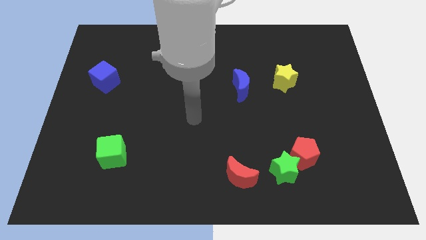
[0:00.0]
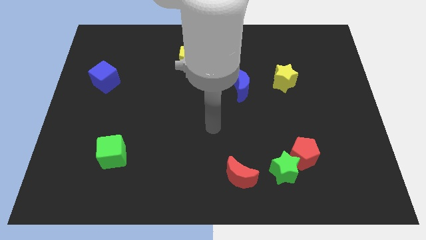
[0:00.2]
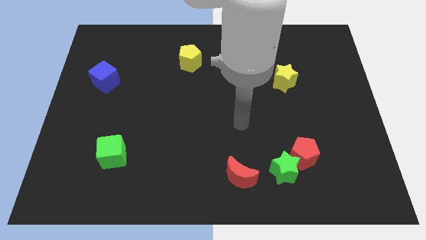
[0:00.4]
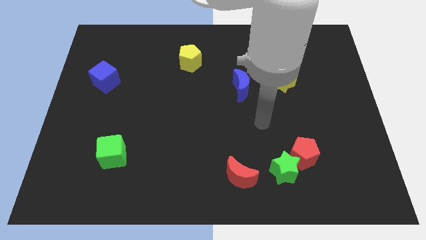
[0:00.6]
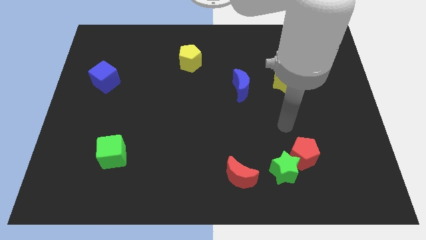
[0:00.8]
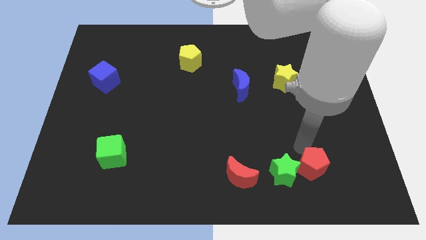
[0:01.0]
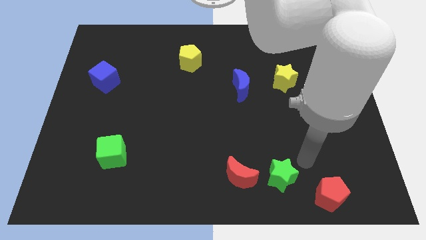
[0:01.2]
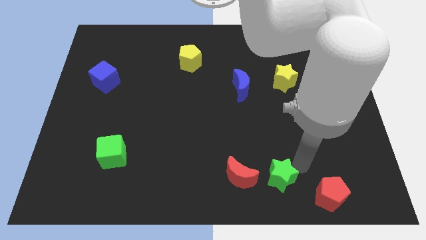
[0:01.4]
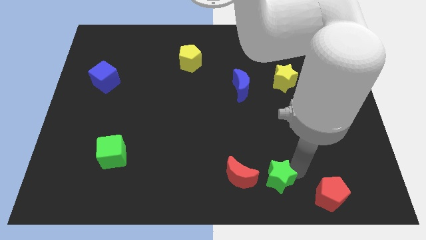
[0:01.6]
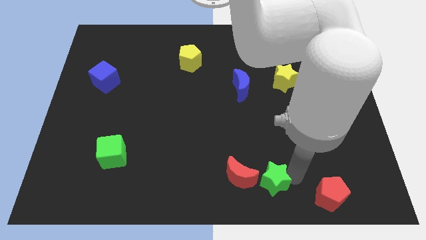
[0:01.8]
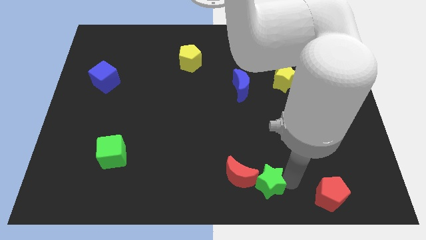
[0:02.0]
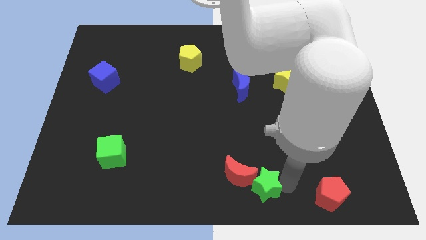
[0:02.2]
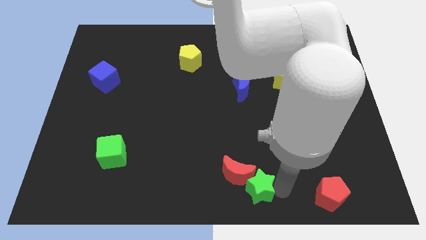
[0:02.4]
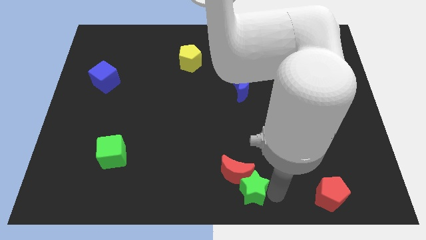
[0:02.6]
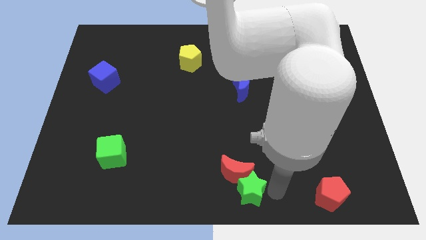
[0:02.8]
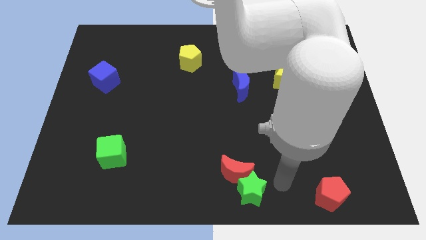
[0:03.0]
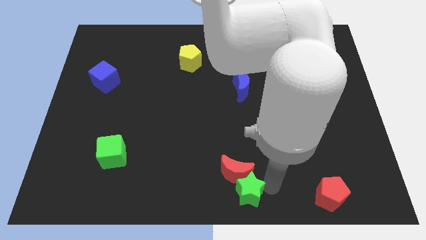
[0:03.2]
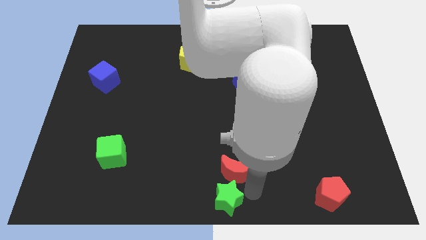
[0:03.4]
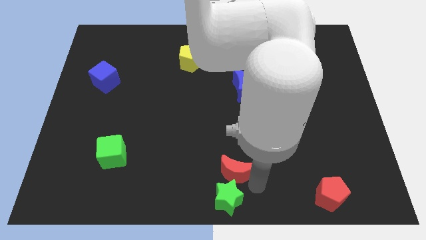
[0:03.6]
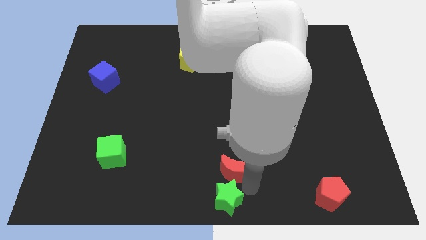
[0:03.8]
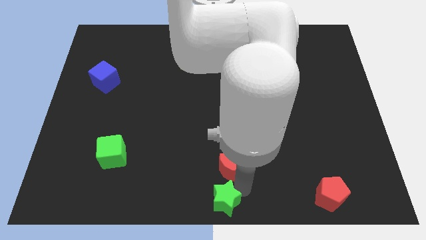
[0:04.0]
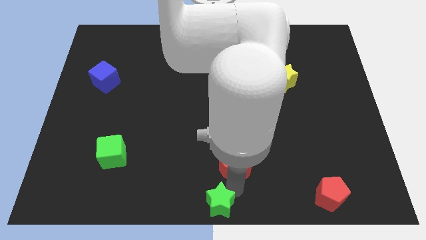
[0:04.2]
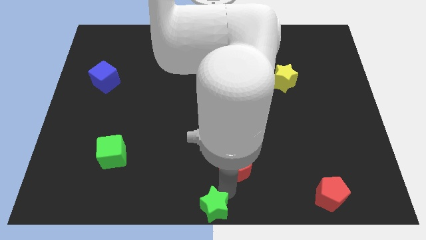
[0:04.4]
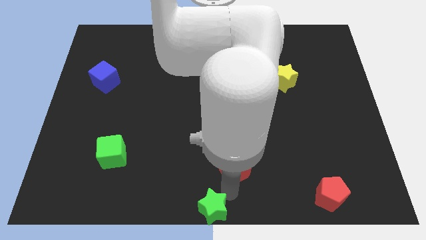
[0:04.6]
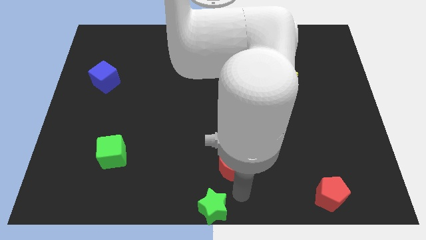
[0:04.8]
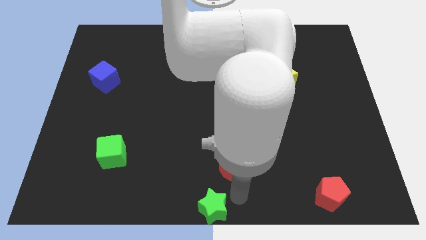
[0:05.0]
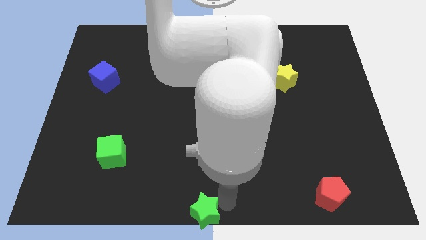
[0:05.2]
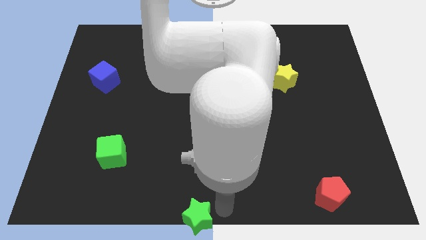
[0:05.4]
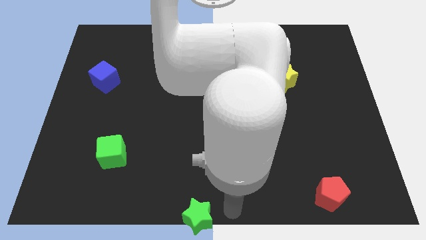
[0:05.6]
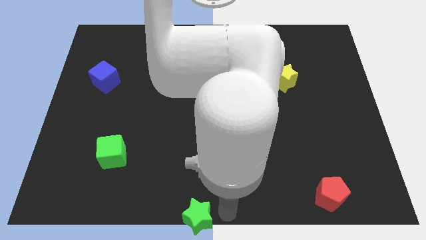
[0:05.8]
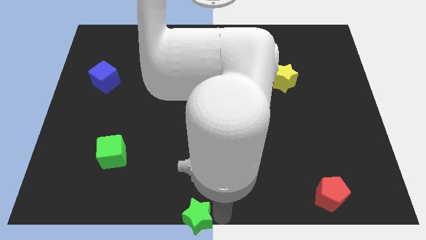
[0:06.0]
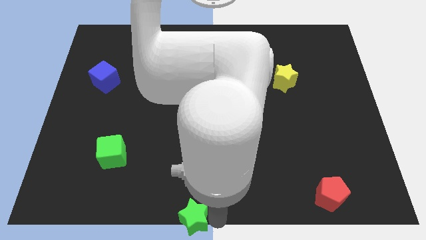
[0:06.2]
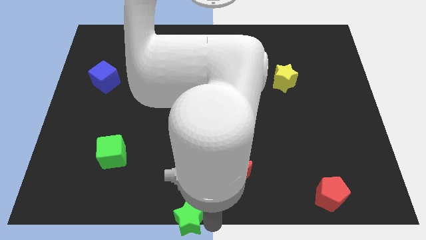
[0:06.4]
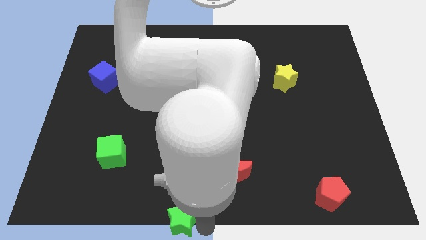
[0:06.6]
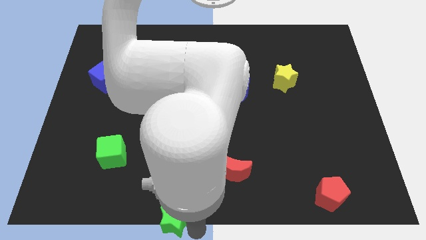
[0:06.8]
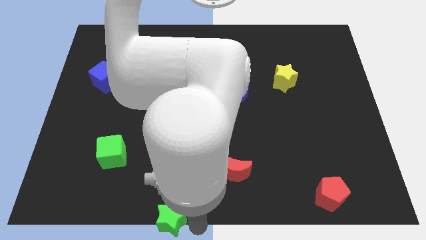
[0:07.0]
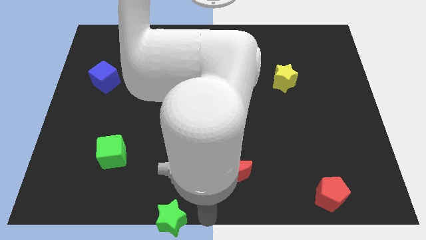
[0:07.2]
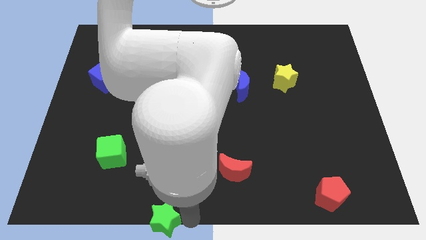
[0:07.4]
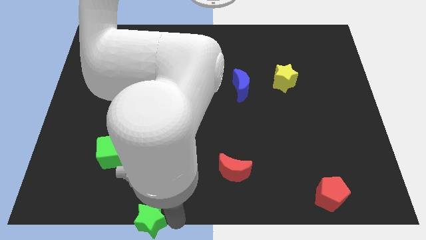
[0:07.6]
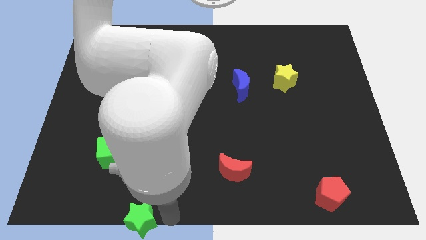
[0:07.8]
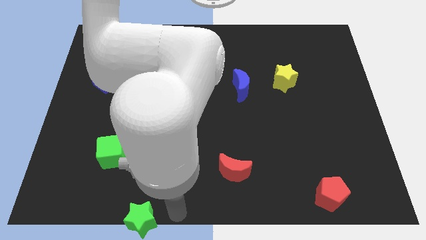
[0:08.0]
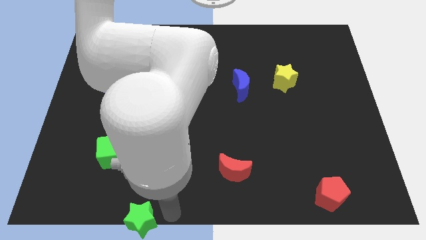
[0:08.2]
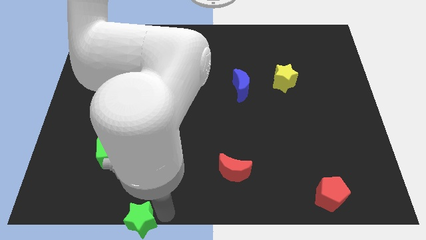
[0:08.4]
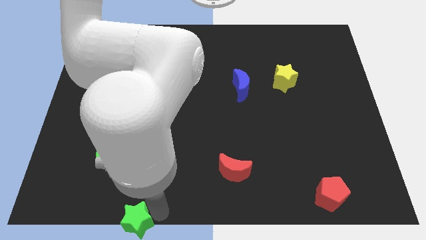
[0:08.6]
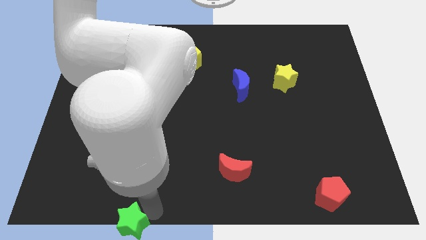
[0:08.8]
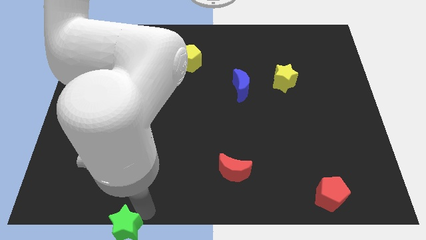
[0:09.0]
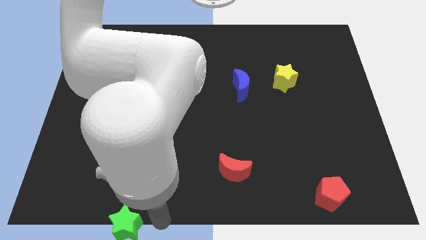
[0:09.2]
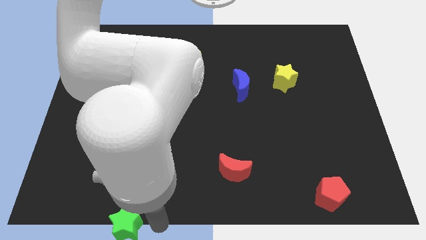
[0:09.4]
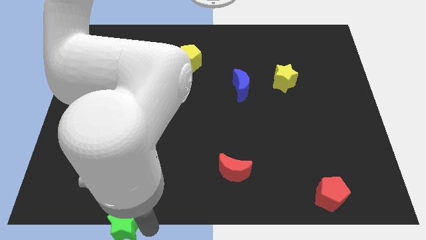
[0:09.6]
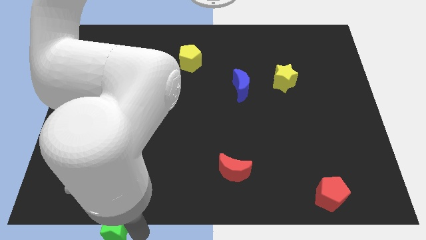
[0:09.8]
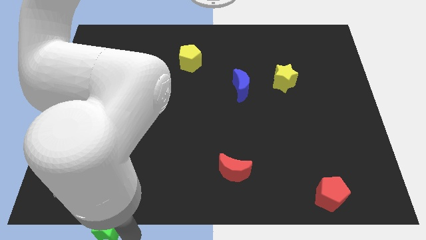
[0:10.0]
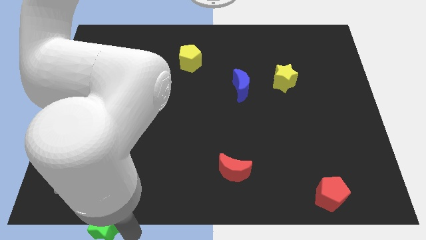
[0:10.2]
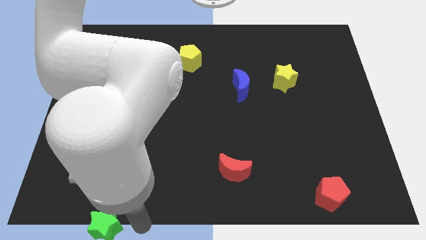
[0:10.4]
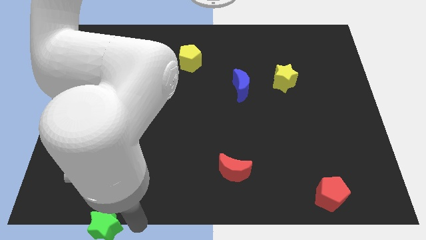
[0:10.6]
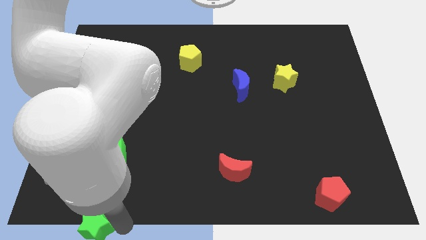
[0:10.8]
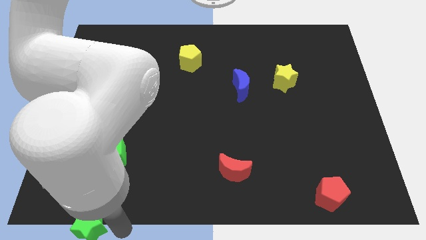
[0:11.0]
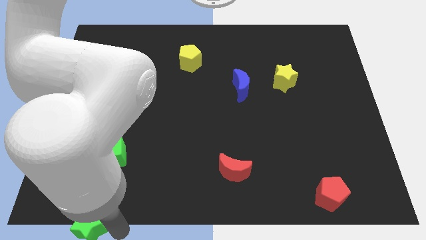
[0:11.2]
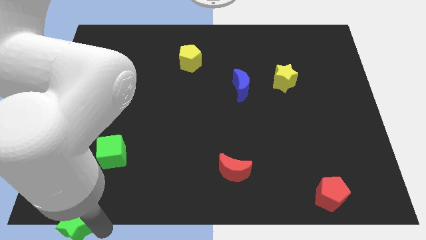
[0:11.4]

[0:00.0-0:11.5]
slide the green star to the bottom left

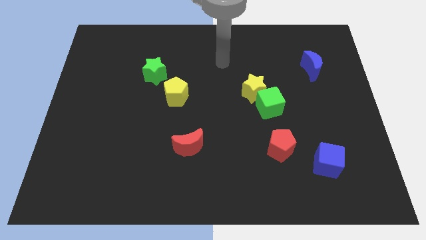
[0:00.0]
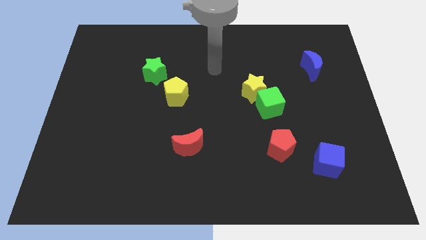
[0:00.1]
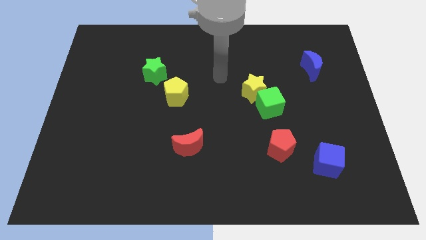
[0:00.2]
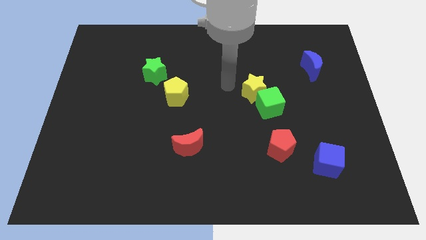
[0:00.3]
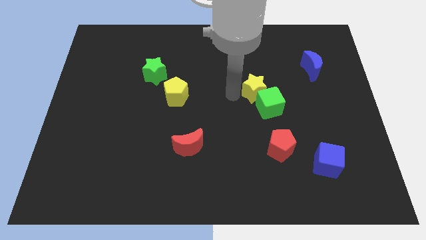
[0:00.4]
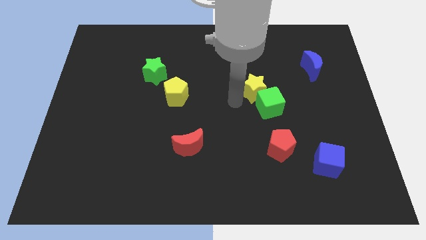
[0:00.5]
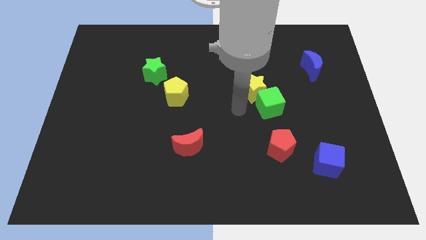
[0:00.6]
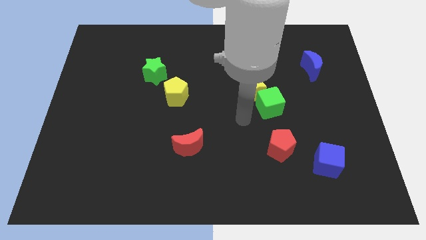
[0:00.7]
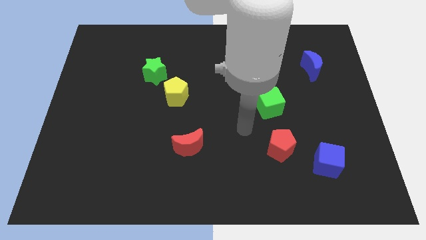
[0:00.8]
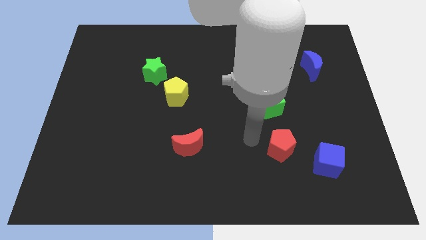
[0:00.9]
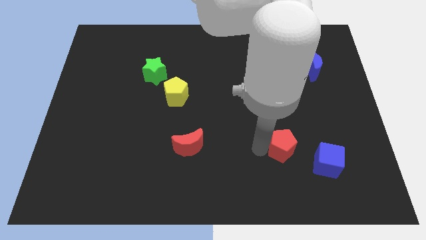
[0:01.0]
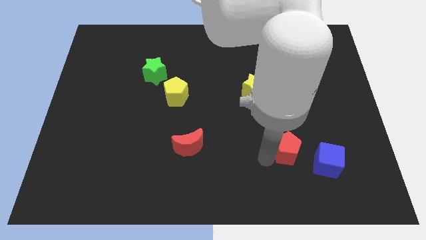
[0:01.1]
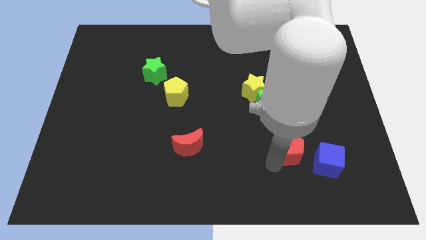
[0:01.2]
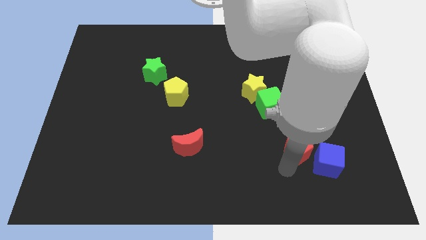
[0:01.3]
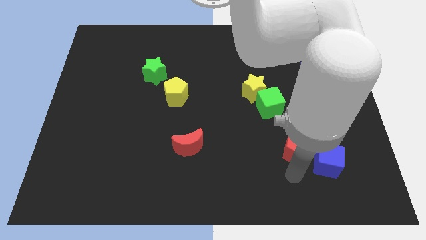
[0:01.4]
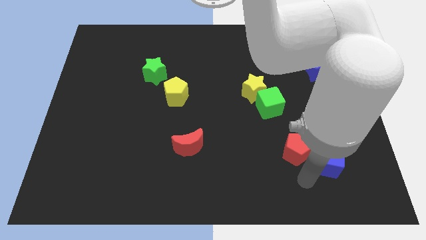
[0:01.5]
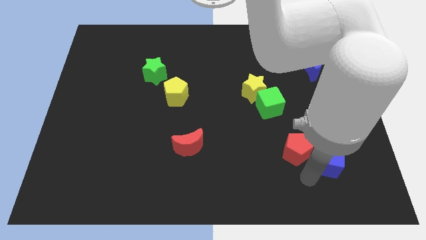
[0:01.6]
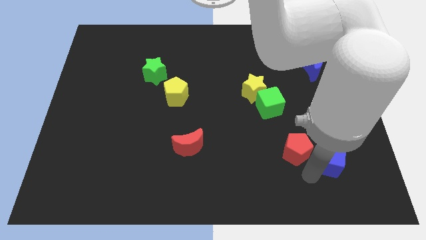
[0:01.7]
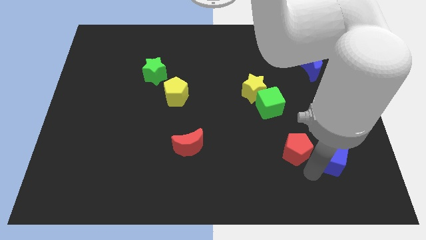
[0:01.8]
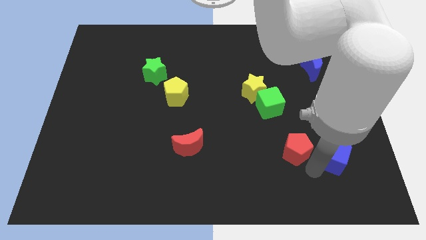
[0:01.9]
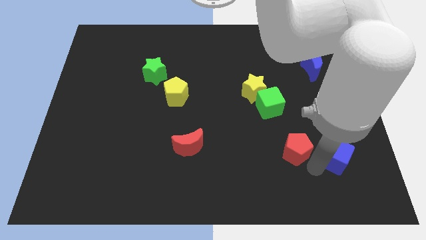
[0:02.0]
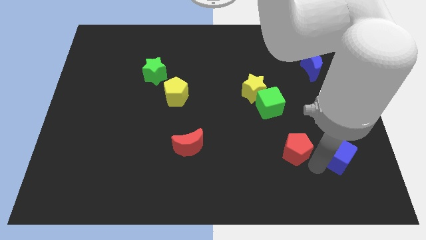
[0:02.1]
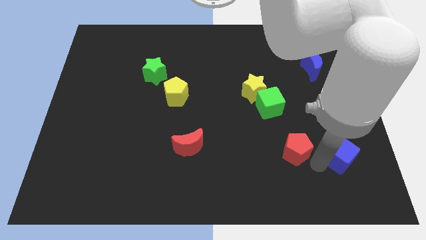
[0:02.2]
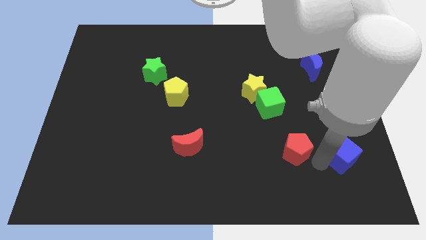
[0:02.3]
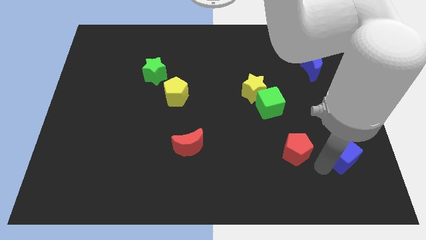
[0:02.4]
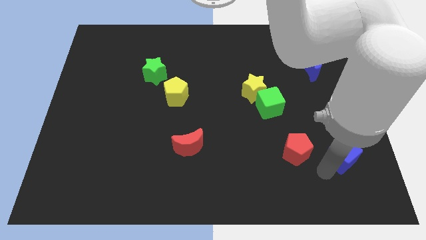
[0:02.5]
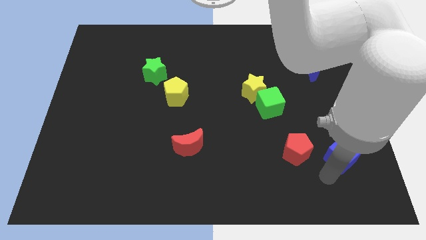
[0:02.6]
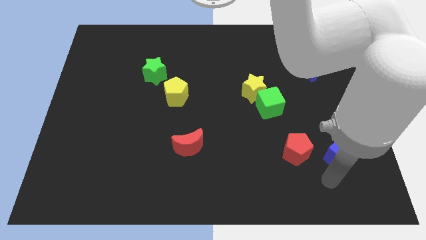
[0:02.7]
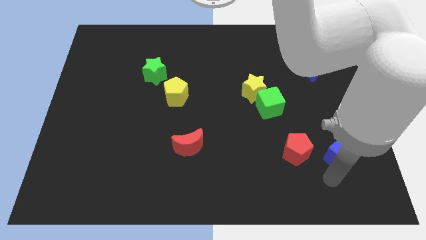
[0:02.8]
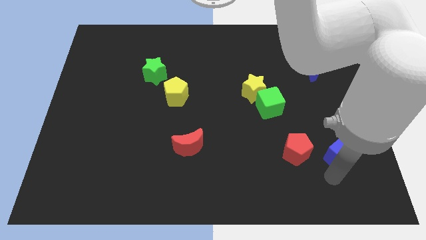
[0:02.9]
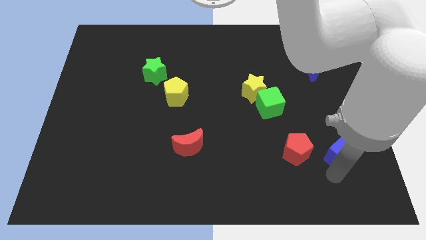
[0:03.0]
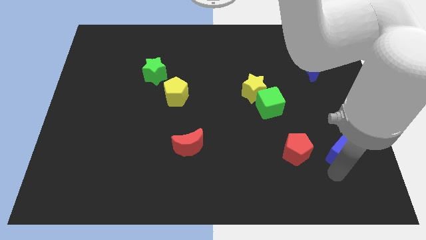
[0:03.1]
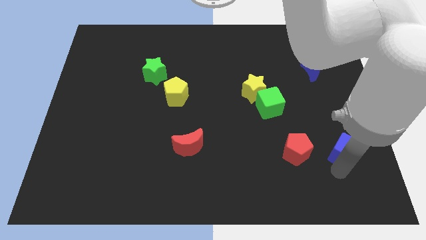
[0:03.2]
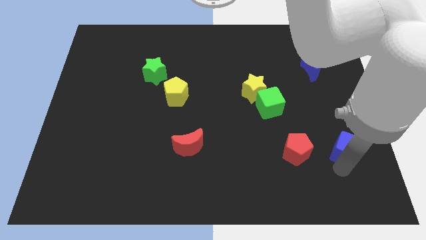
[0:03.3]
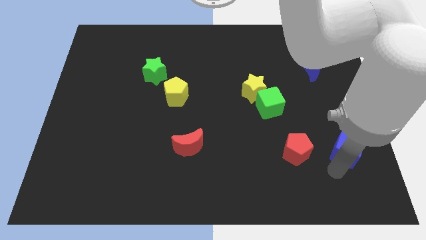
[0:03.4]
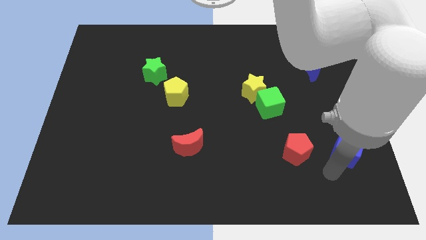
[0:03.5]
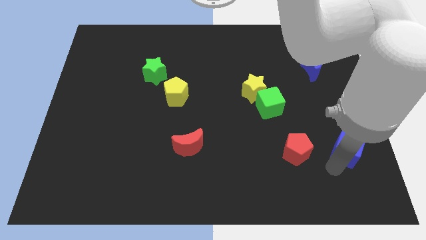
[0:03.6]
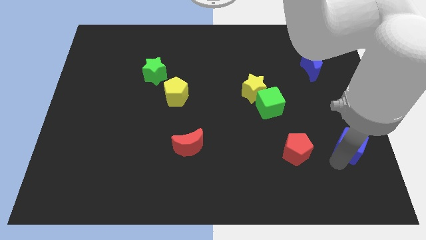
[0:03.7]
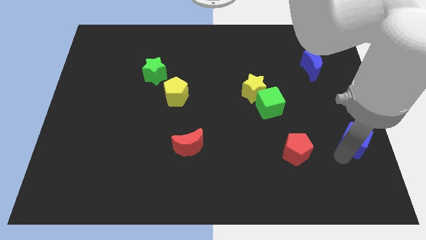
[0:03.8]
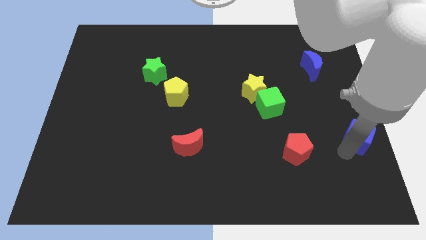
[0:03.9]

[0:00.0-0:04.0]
move the blue cube to the right side of the board
